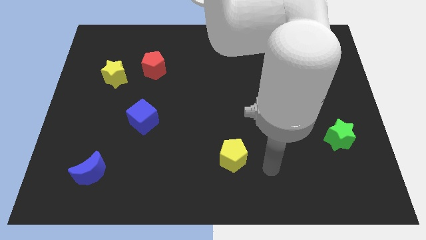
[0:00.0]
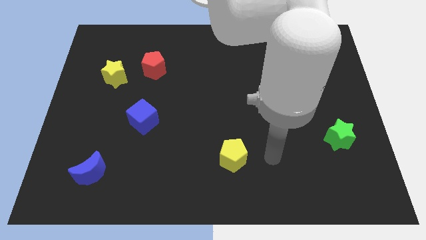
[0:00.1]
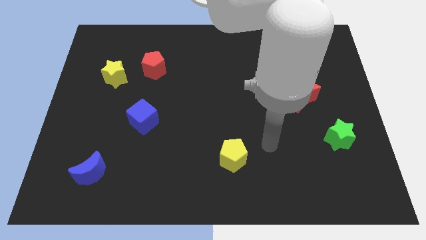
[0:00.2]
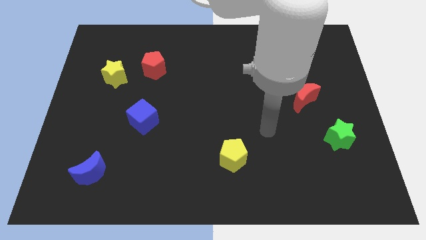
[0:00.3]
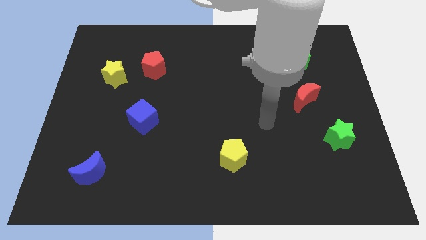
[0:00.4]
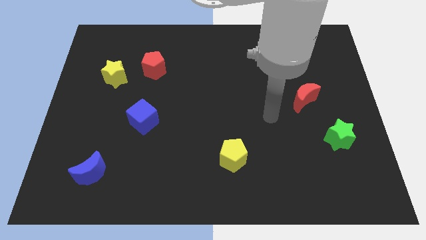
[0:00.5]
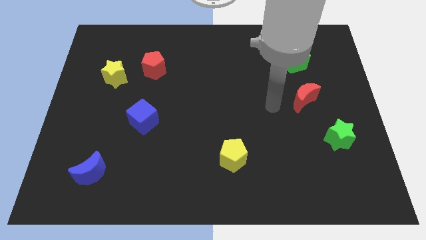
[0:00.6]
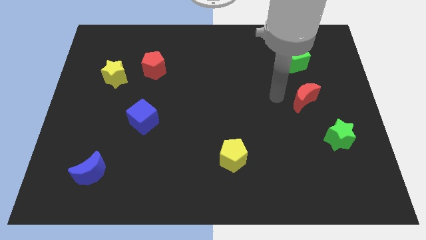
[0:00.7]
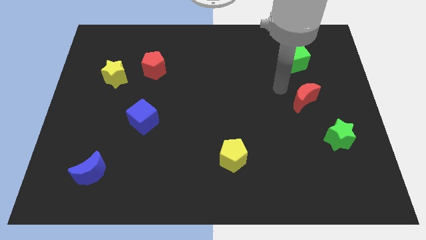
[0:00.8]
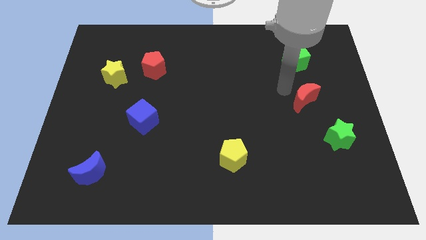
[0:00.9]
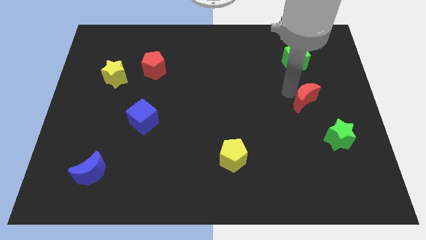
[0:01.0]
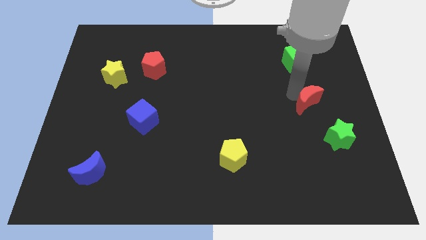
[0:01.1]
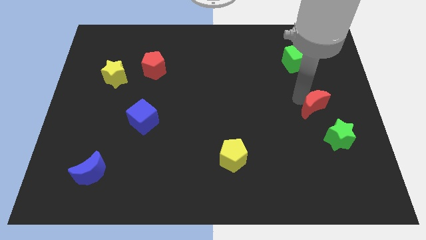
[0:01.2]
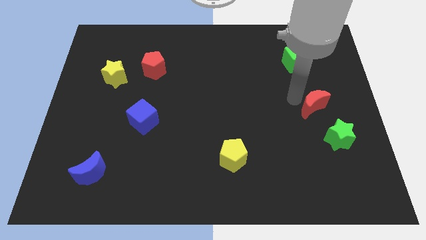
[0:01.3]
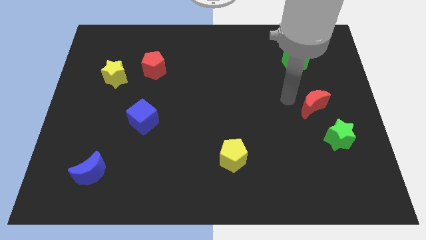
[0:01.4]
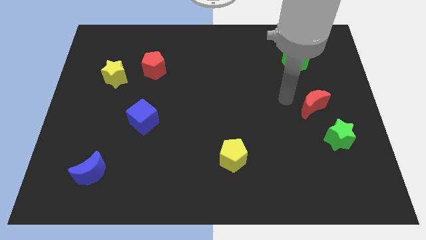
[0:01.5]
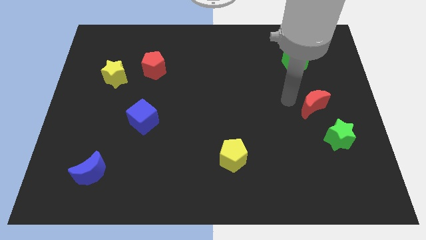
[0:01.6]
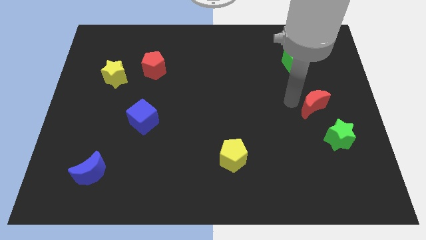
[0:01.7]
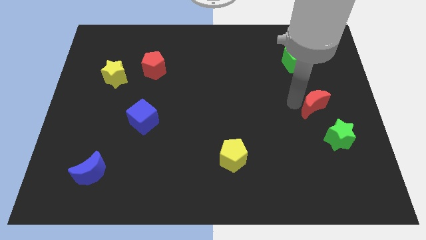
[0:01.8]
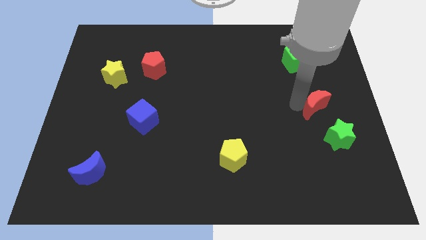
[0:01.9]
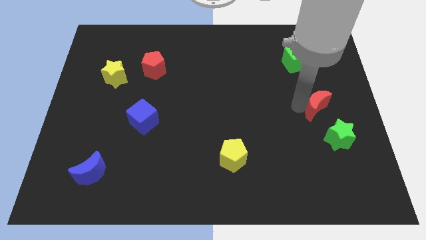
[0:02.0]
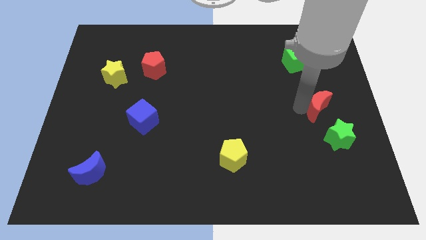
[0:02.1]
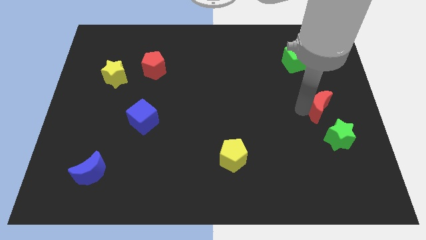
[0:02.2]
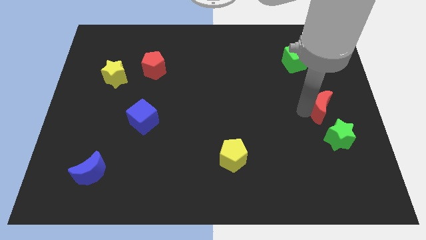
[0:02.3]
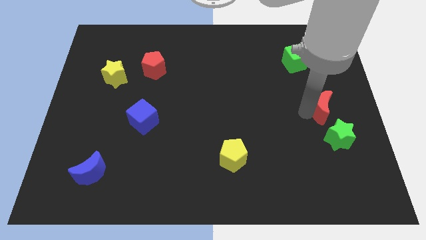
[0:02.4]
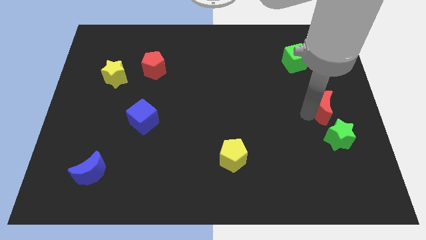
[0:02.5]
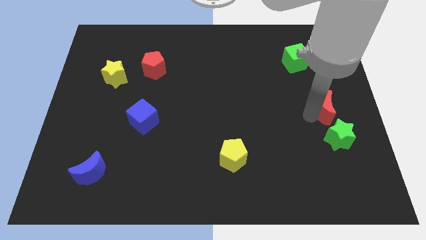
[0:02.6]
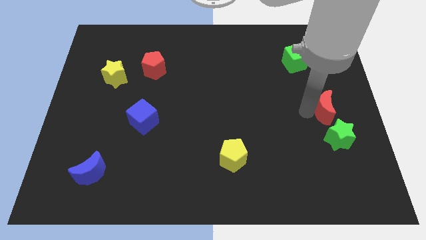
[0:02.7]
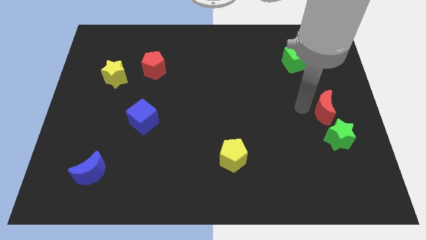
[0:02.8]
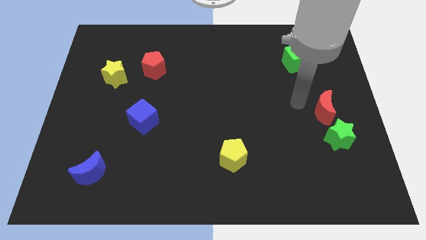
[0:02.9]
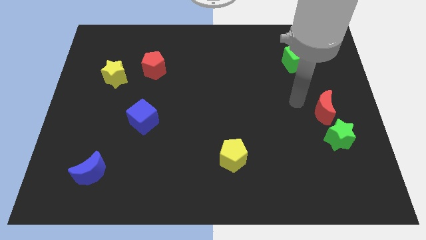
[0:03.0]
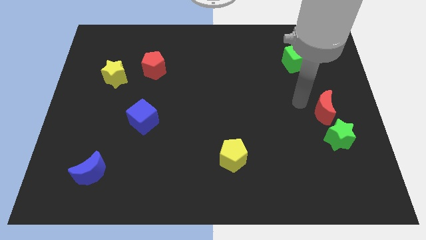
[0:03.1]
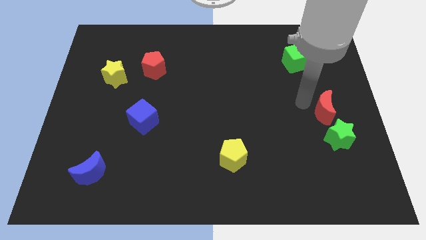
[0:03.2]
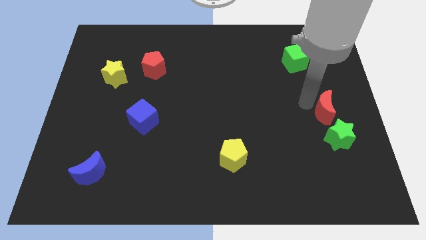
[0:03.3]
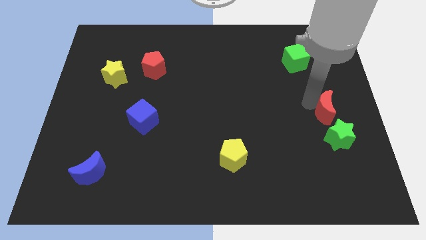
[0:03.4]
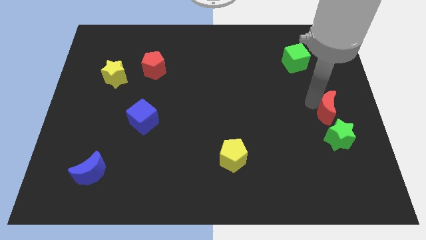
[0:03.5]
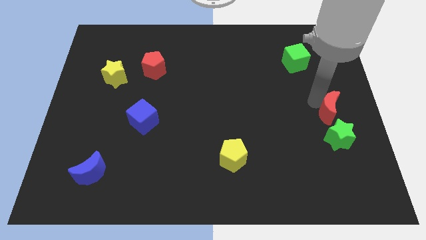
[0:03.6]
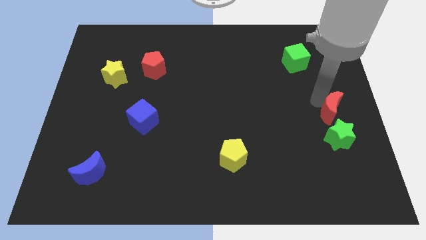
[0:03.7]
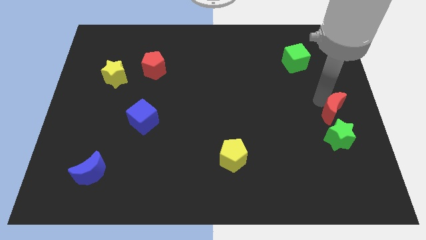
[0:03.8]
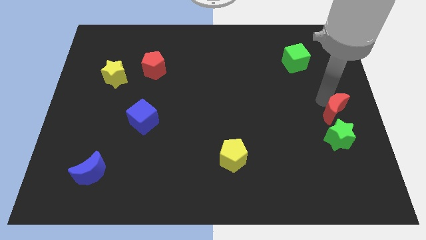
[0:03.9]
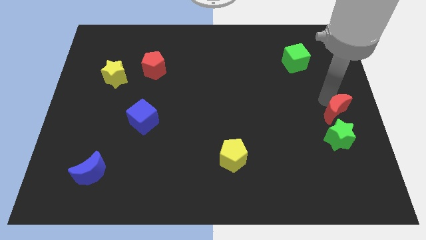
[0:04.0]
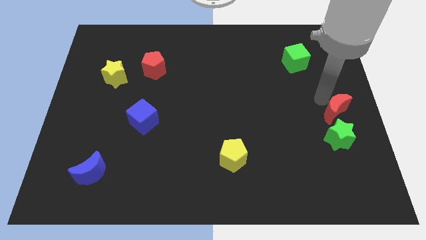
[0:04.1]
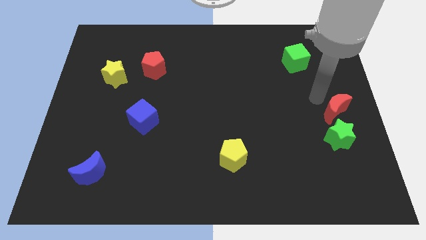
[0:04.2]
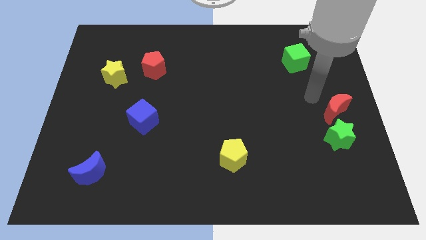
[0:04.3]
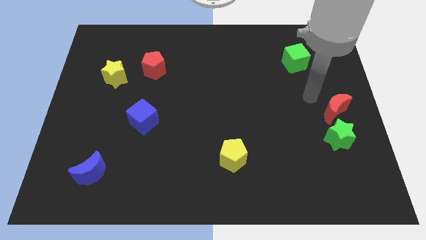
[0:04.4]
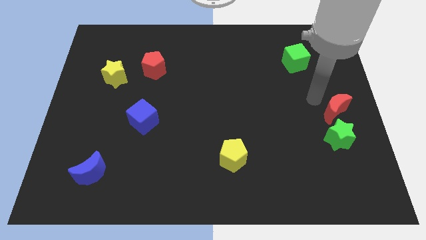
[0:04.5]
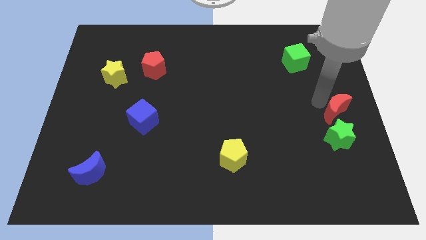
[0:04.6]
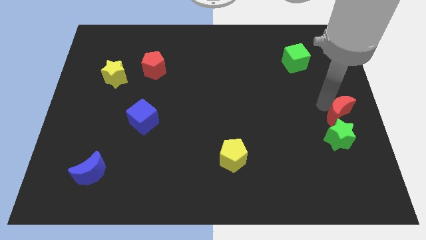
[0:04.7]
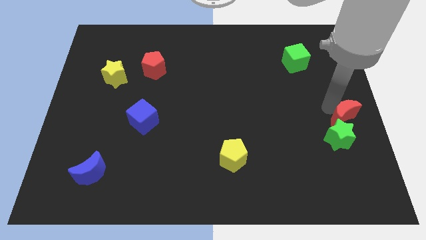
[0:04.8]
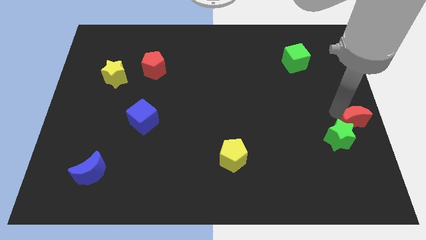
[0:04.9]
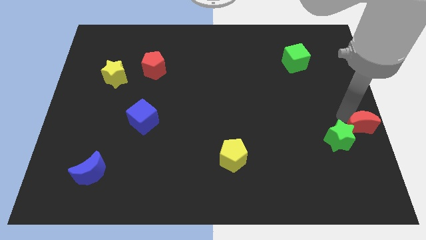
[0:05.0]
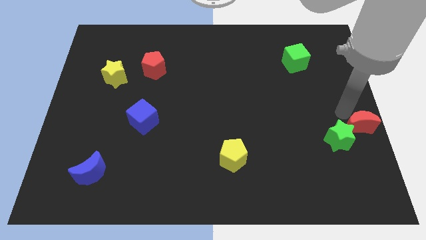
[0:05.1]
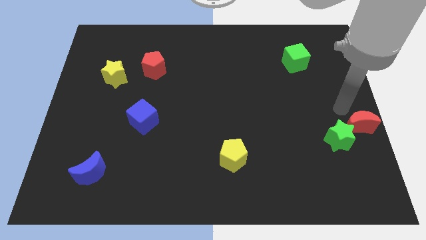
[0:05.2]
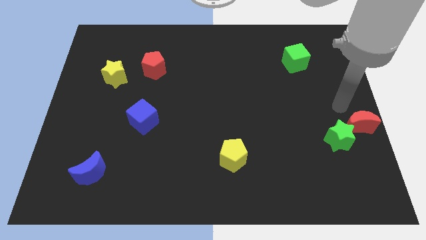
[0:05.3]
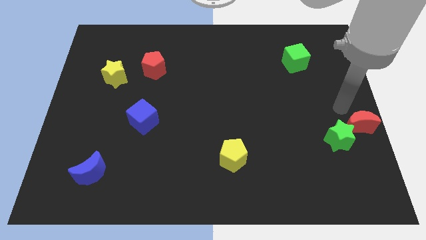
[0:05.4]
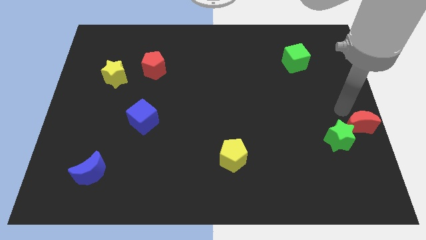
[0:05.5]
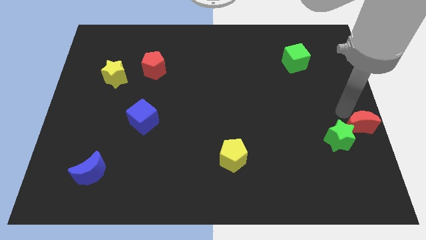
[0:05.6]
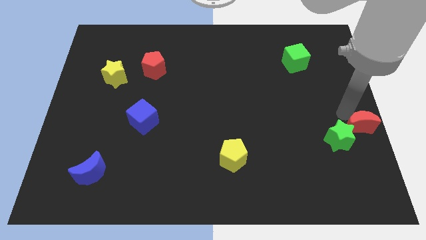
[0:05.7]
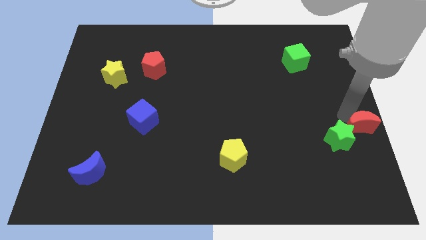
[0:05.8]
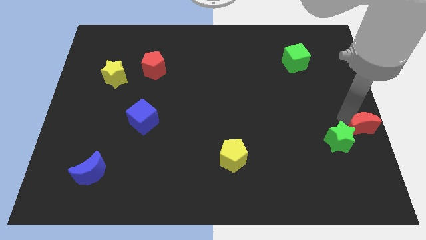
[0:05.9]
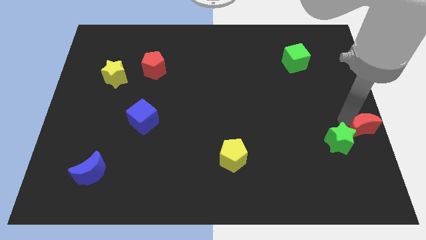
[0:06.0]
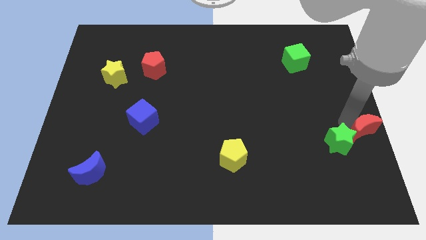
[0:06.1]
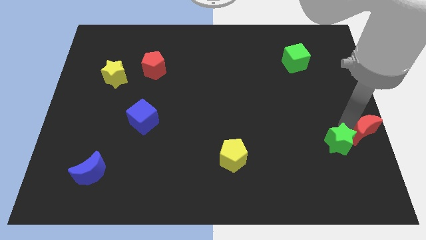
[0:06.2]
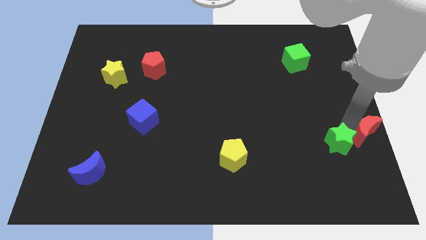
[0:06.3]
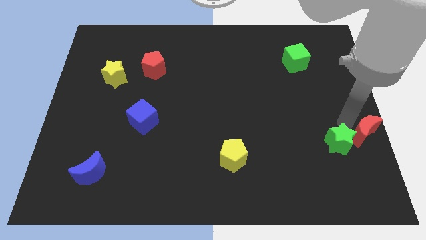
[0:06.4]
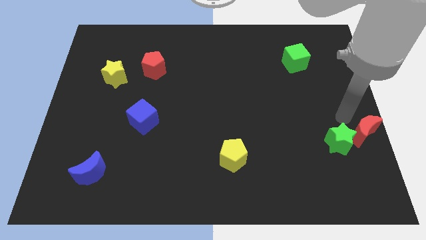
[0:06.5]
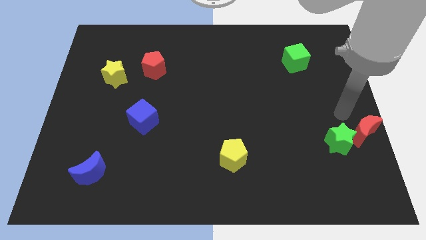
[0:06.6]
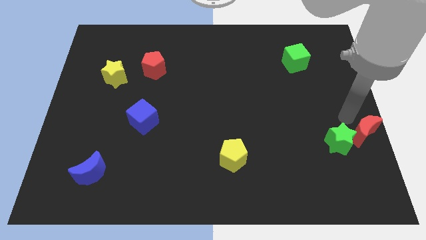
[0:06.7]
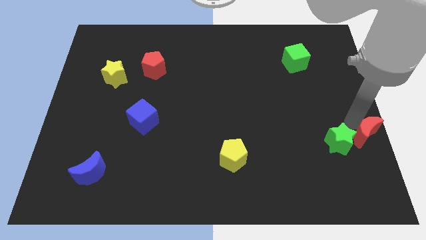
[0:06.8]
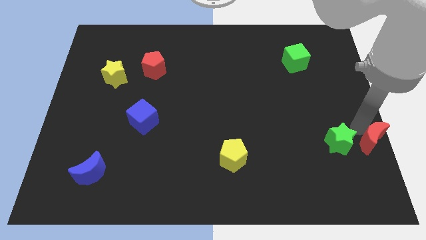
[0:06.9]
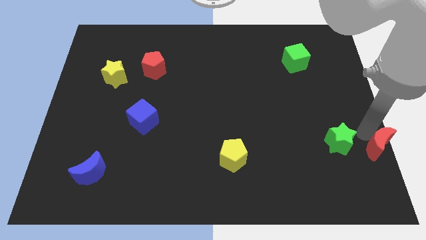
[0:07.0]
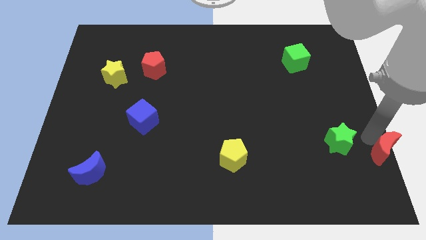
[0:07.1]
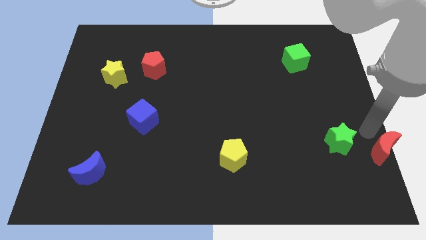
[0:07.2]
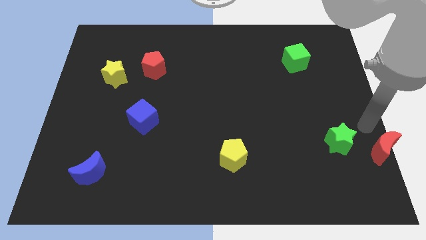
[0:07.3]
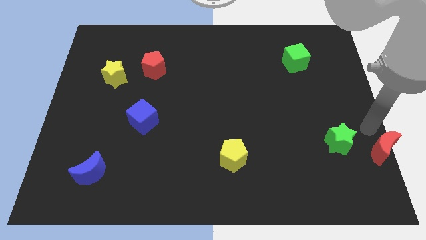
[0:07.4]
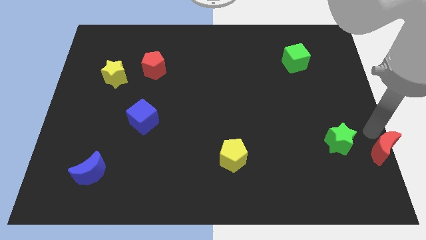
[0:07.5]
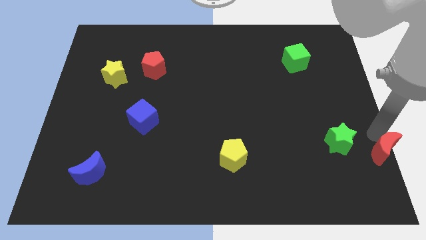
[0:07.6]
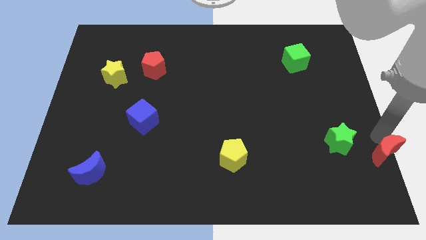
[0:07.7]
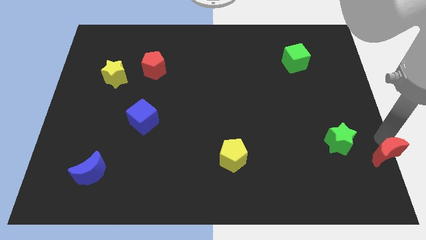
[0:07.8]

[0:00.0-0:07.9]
move the red moon to the bottom right of the board
